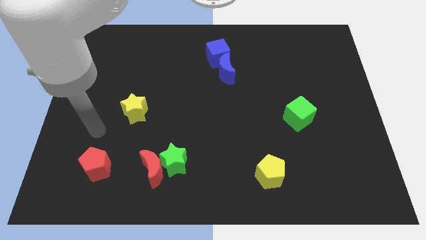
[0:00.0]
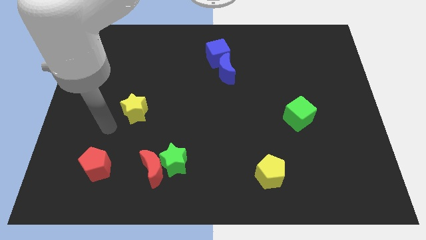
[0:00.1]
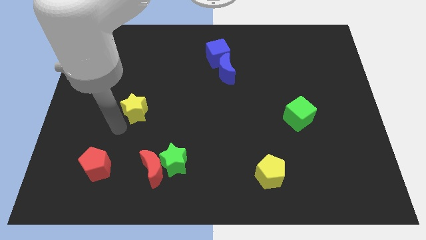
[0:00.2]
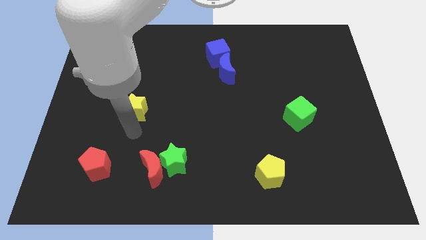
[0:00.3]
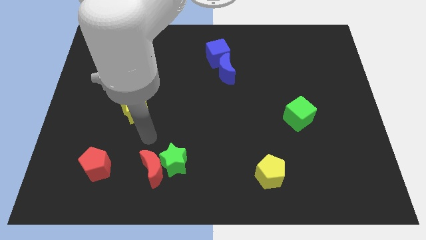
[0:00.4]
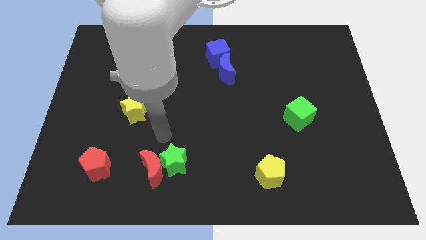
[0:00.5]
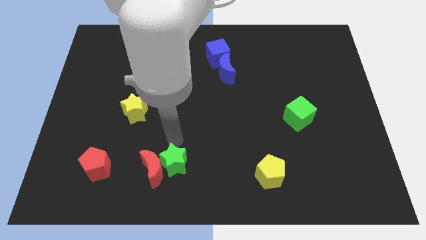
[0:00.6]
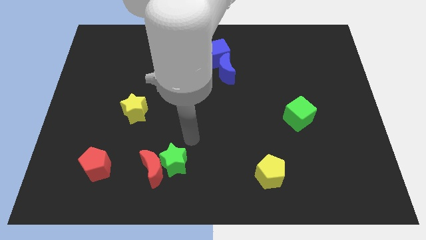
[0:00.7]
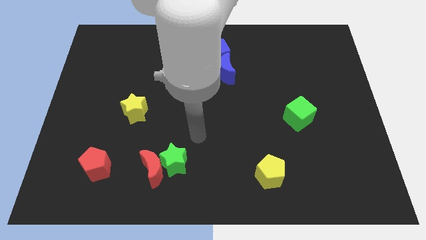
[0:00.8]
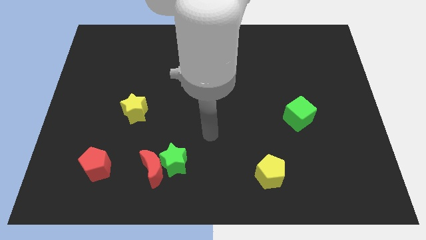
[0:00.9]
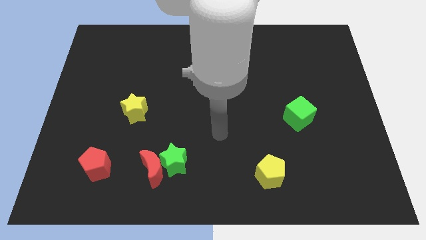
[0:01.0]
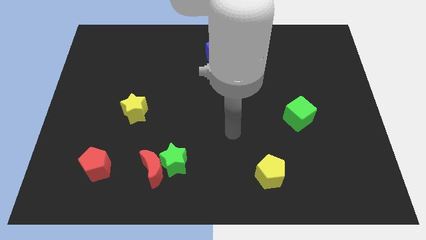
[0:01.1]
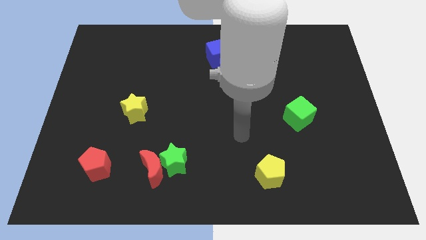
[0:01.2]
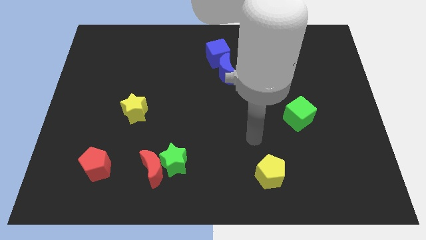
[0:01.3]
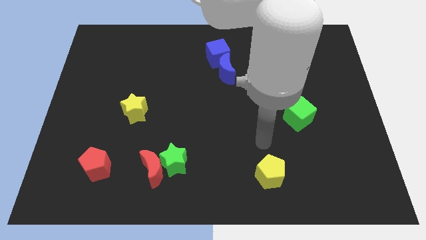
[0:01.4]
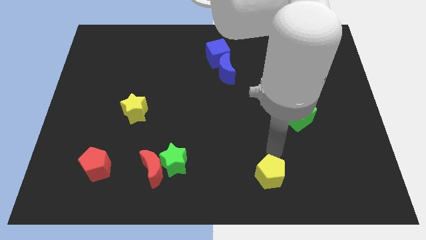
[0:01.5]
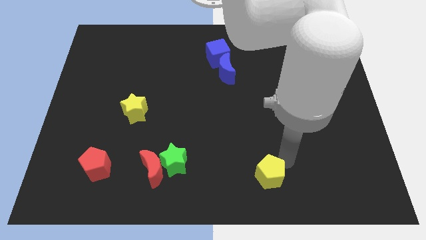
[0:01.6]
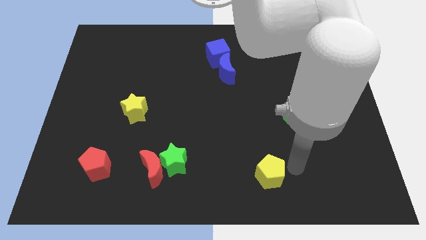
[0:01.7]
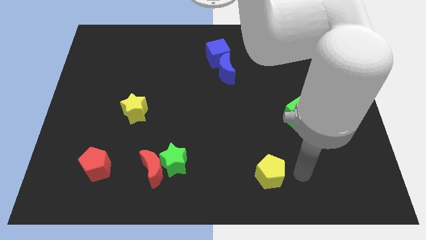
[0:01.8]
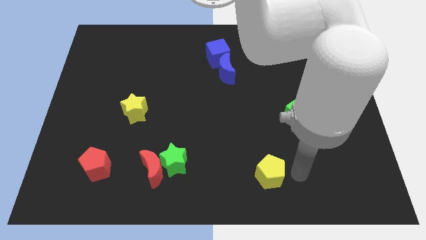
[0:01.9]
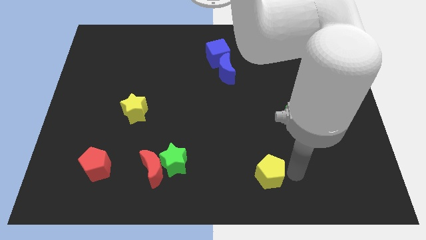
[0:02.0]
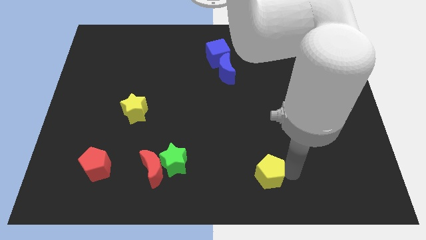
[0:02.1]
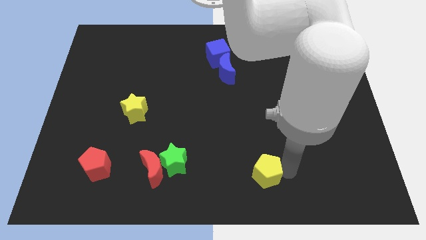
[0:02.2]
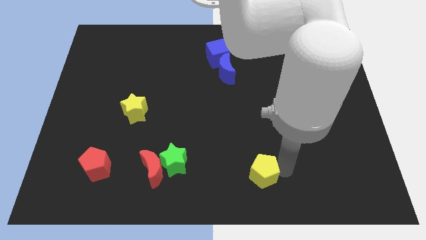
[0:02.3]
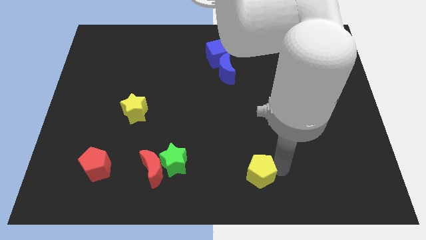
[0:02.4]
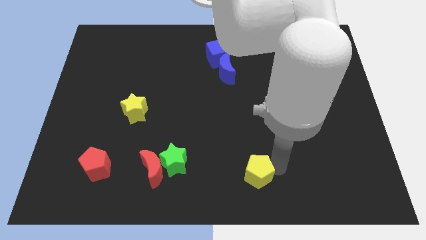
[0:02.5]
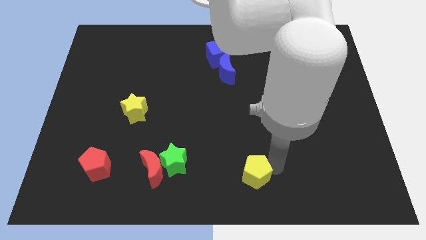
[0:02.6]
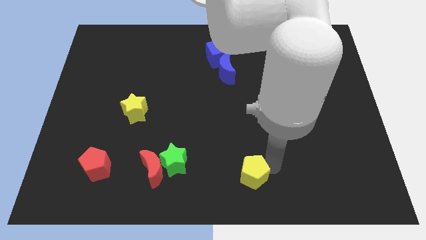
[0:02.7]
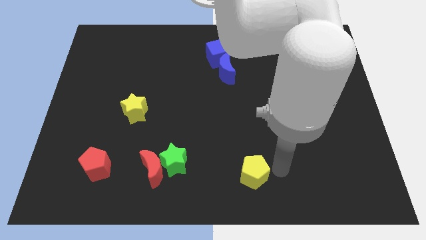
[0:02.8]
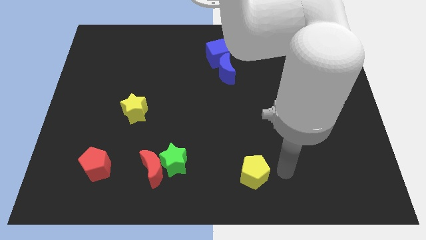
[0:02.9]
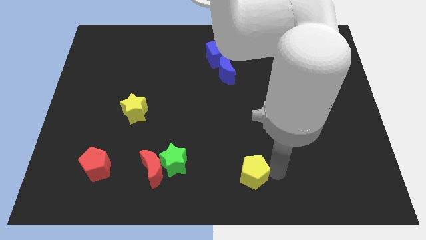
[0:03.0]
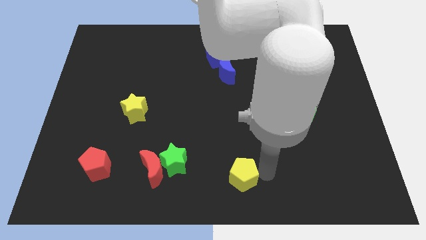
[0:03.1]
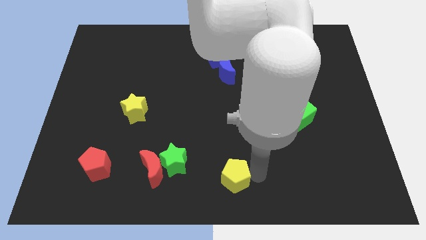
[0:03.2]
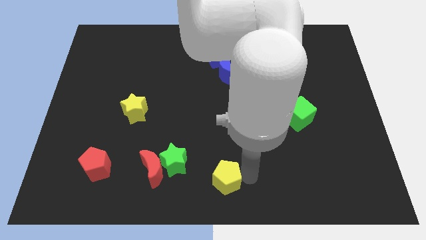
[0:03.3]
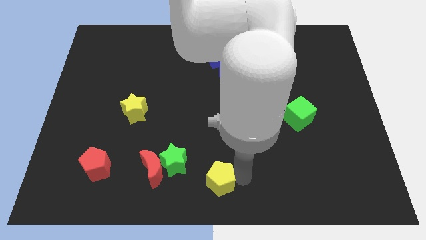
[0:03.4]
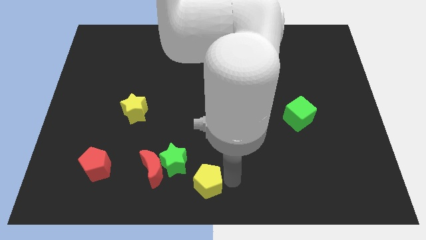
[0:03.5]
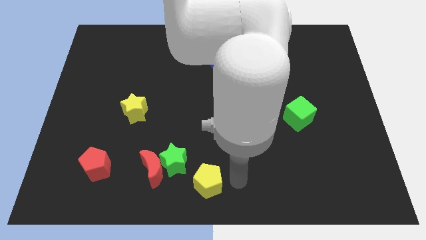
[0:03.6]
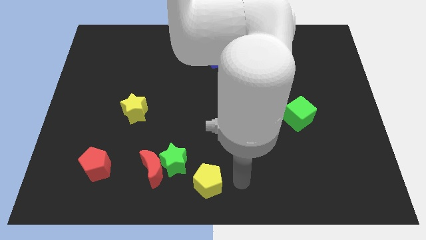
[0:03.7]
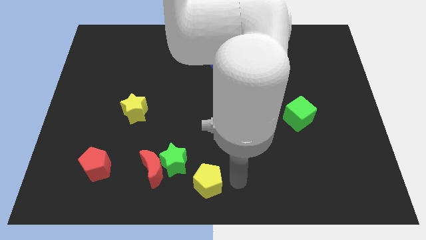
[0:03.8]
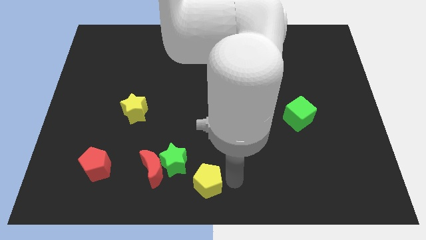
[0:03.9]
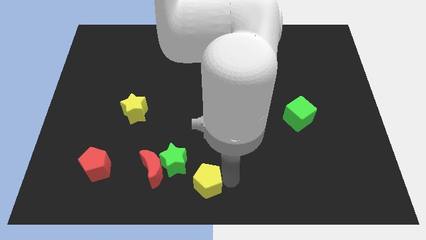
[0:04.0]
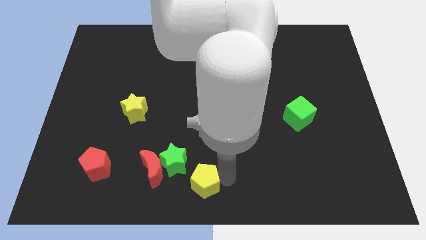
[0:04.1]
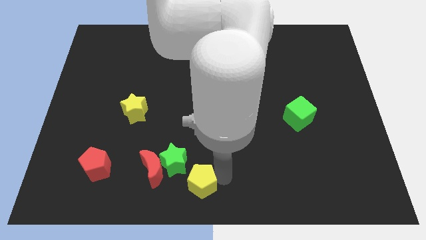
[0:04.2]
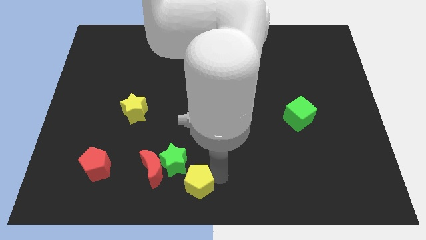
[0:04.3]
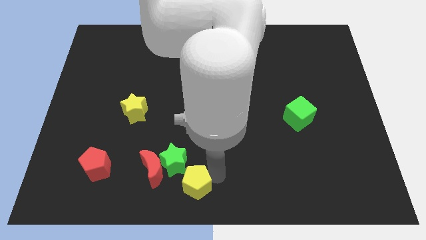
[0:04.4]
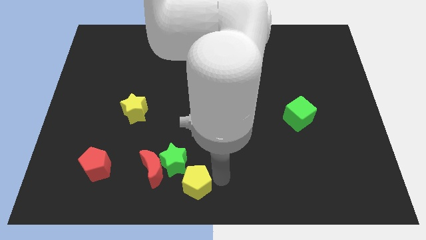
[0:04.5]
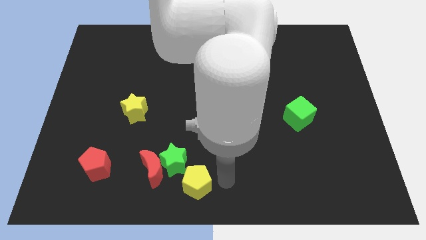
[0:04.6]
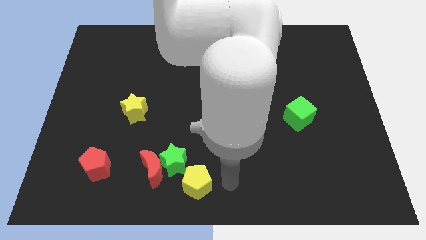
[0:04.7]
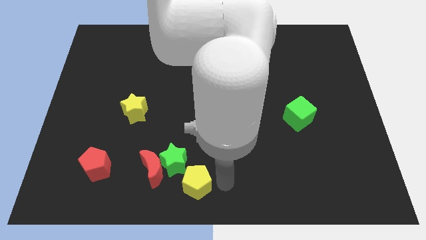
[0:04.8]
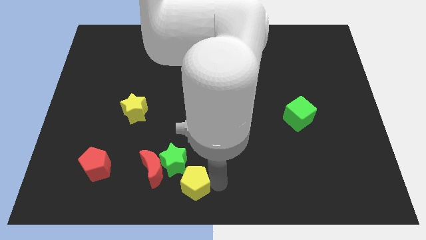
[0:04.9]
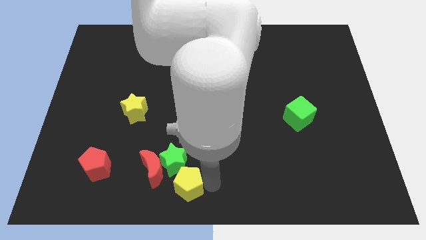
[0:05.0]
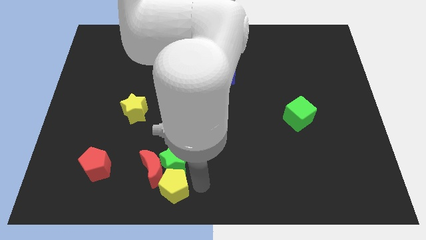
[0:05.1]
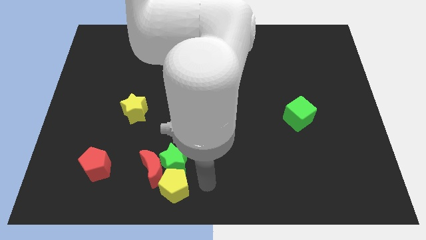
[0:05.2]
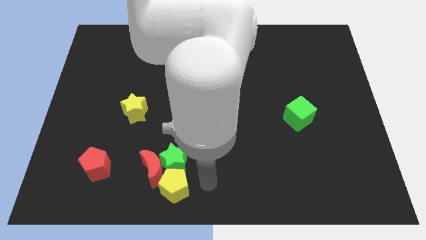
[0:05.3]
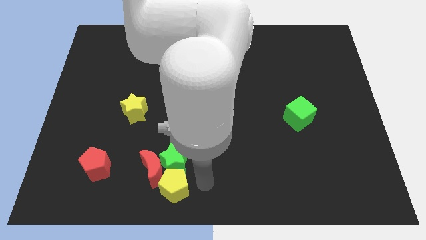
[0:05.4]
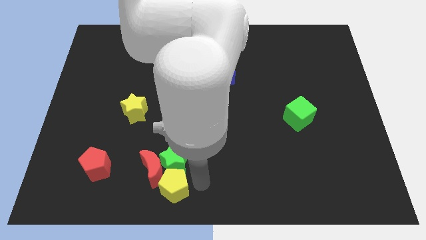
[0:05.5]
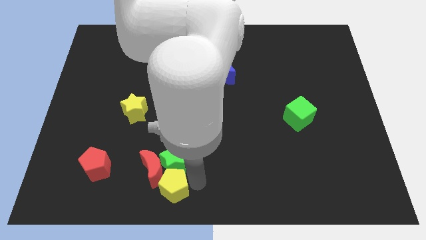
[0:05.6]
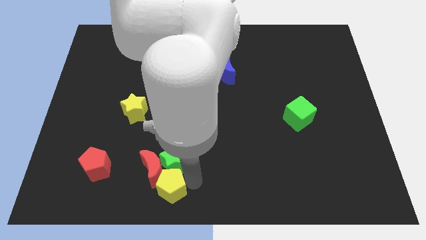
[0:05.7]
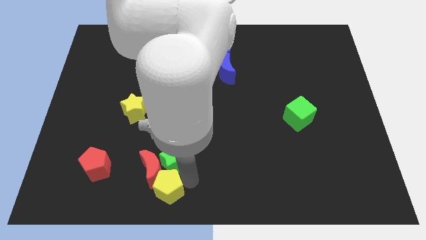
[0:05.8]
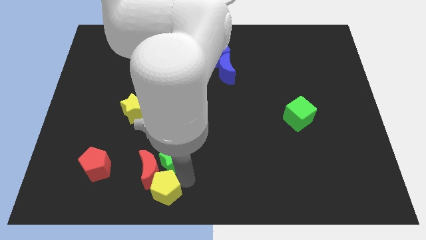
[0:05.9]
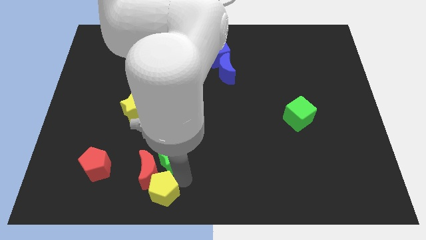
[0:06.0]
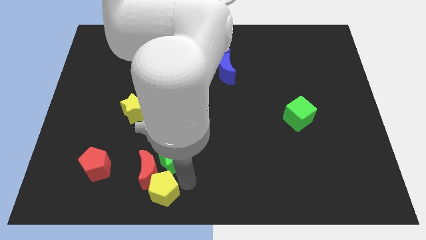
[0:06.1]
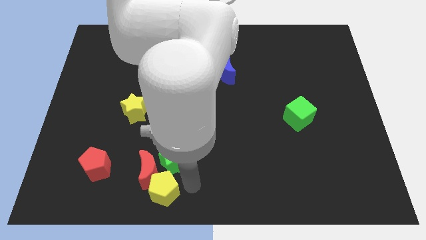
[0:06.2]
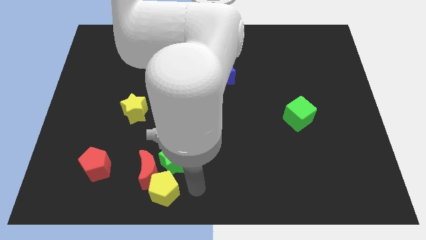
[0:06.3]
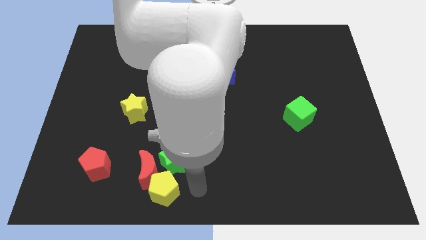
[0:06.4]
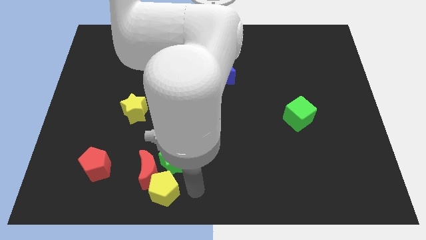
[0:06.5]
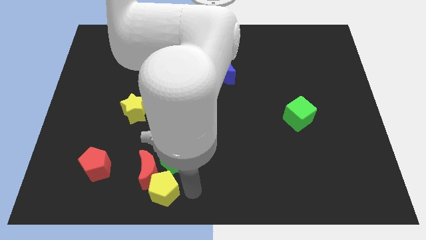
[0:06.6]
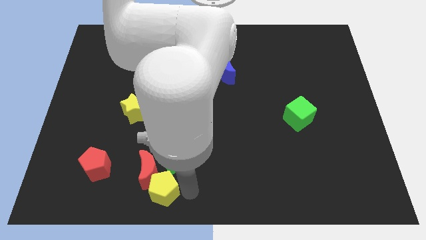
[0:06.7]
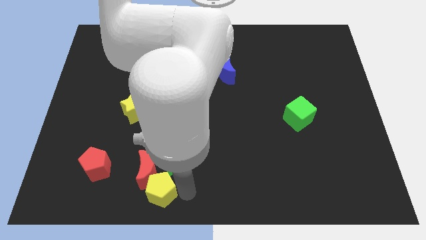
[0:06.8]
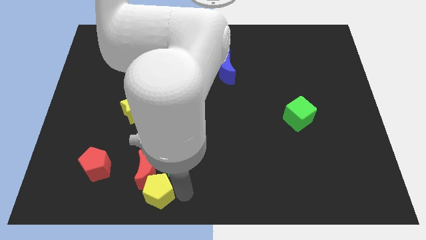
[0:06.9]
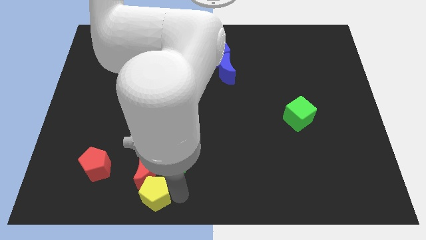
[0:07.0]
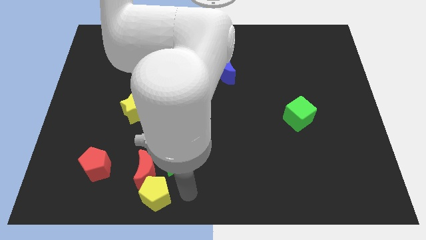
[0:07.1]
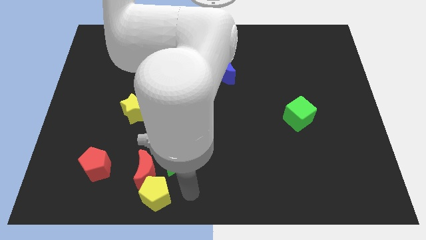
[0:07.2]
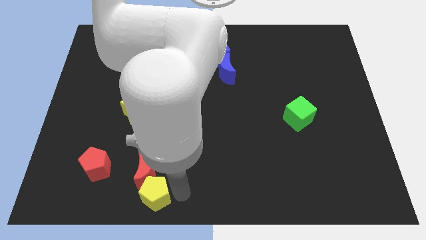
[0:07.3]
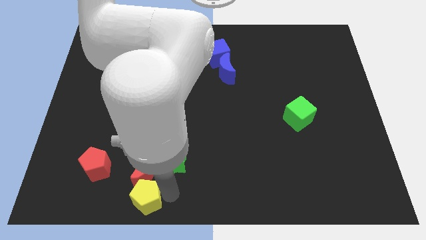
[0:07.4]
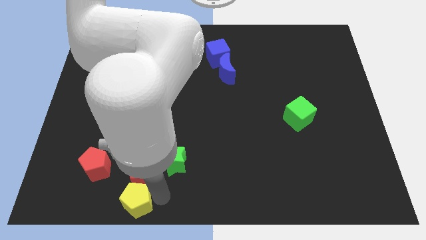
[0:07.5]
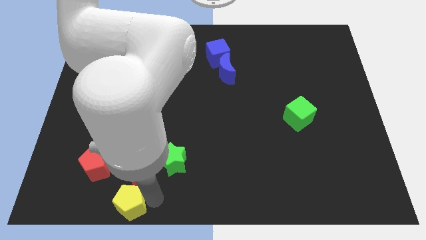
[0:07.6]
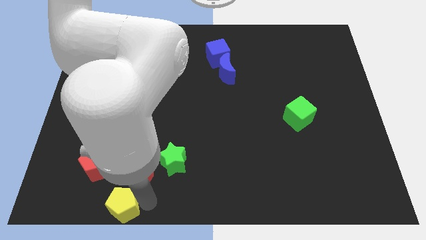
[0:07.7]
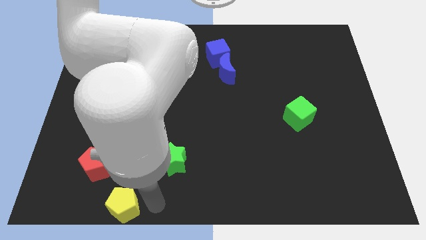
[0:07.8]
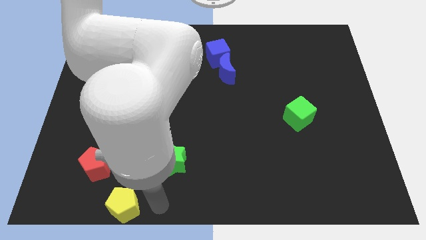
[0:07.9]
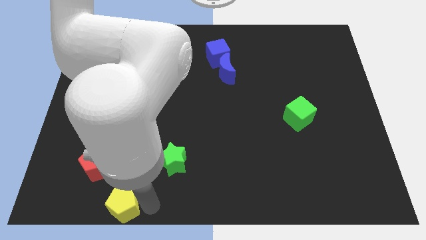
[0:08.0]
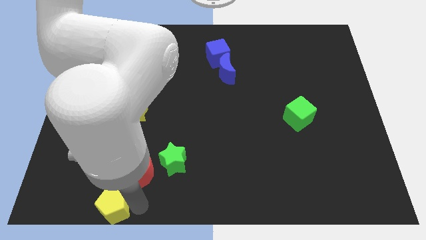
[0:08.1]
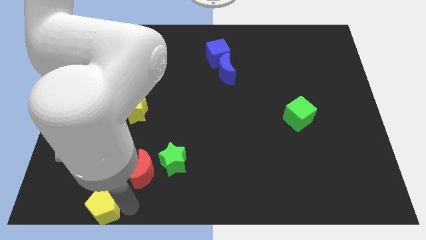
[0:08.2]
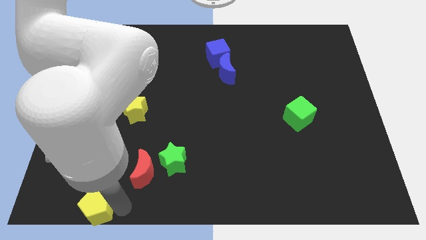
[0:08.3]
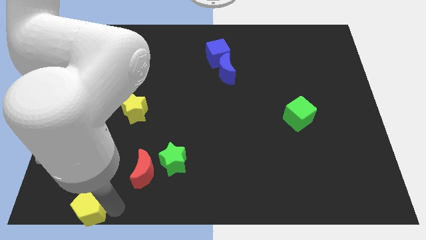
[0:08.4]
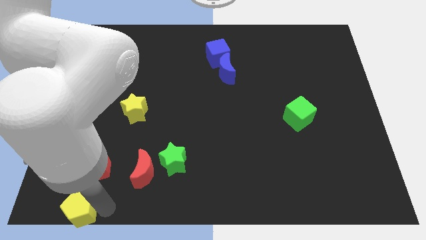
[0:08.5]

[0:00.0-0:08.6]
put the yellow pentagon to the bottom left
